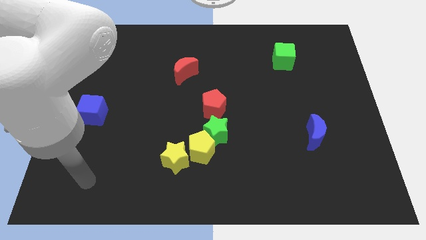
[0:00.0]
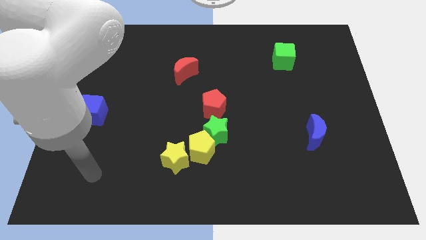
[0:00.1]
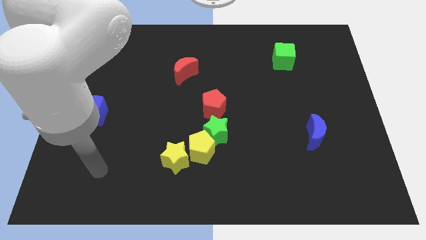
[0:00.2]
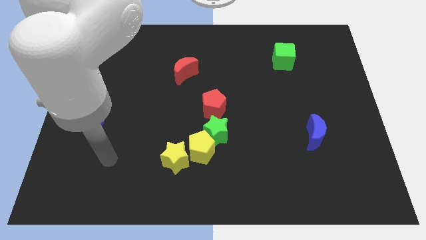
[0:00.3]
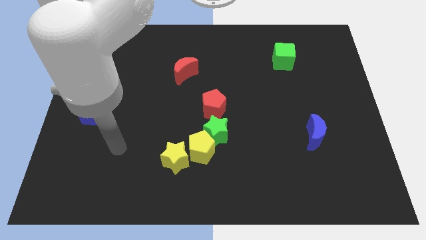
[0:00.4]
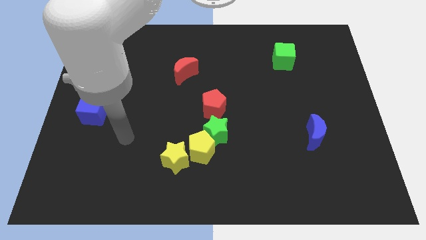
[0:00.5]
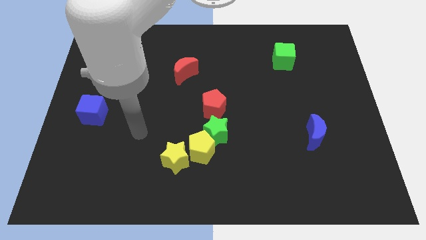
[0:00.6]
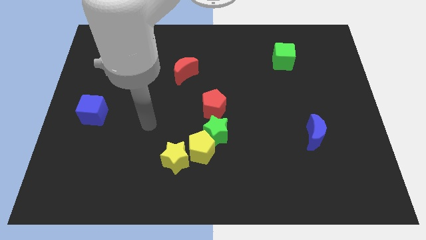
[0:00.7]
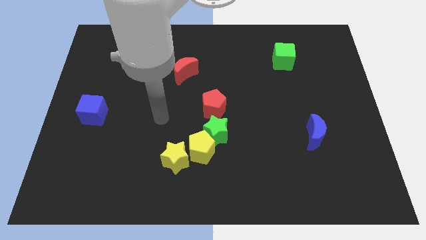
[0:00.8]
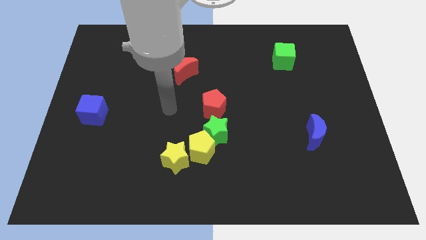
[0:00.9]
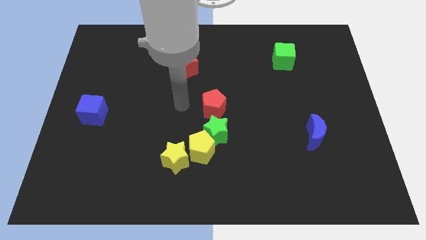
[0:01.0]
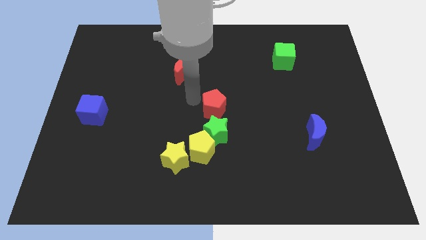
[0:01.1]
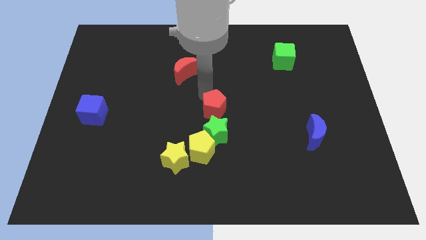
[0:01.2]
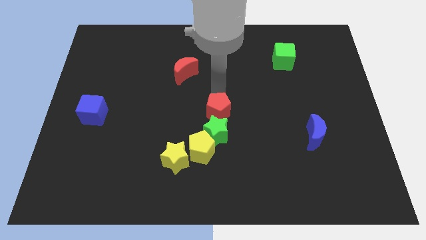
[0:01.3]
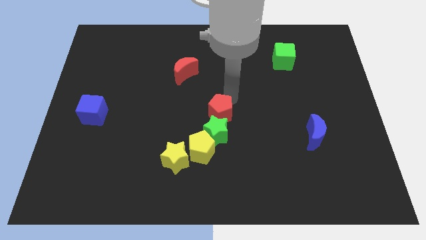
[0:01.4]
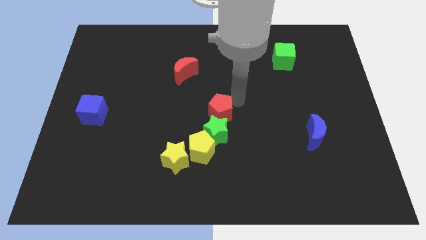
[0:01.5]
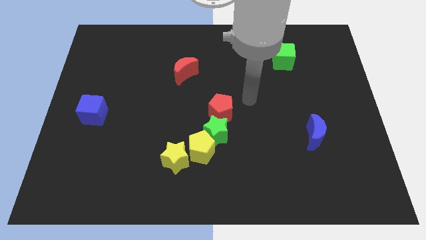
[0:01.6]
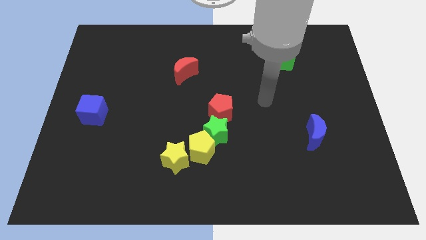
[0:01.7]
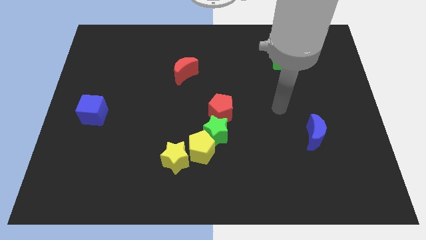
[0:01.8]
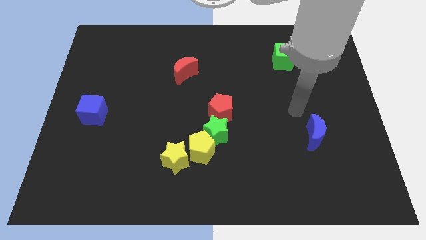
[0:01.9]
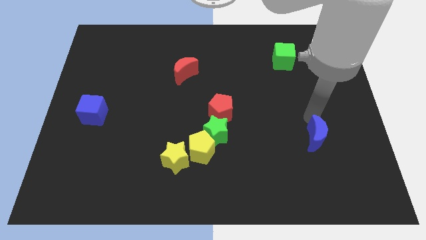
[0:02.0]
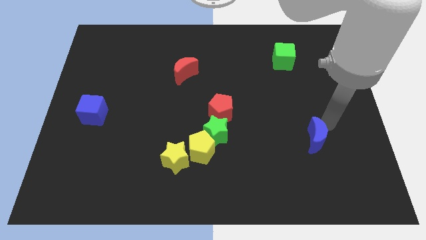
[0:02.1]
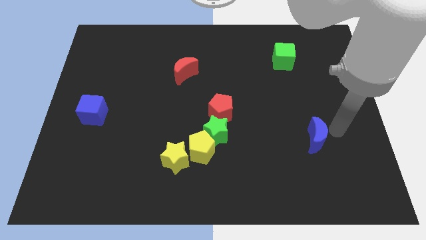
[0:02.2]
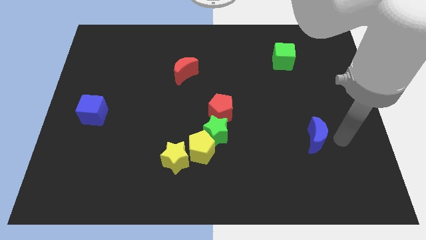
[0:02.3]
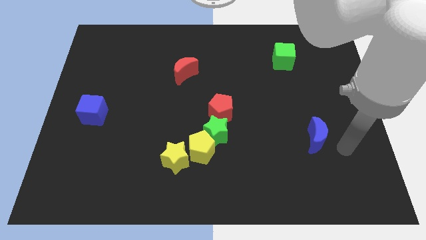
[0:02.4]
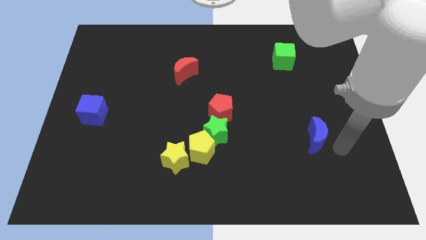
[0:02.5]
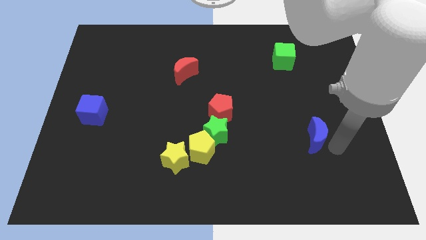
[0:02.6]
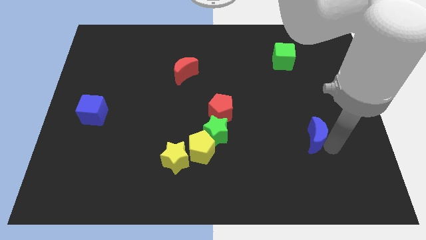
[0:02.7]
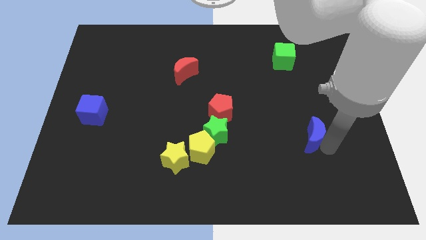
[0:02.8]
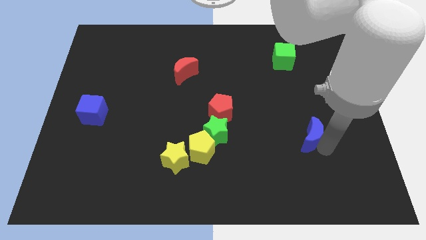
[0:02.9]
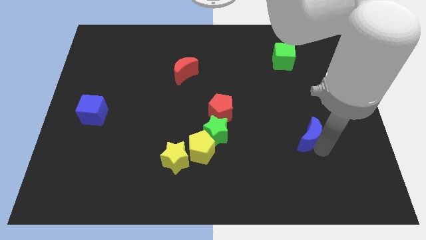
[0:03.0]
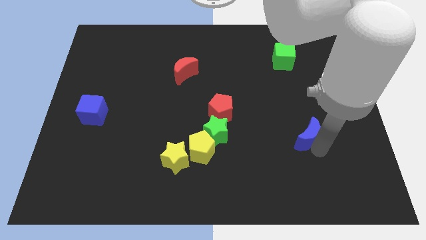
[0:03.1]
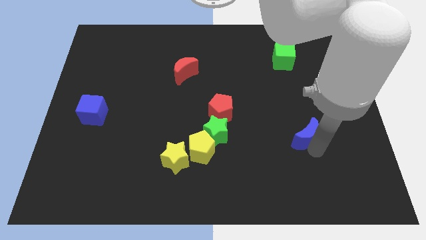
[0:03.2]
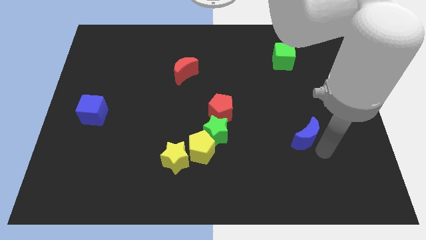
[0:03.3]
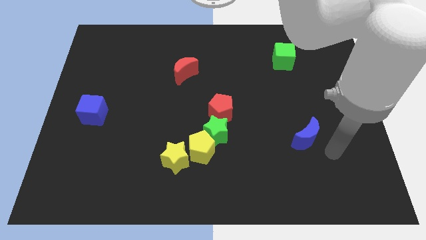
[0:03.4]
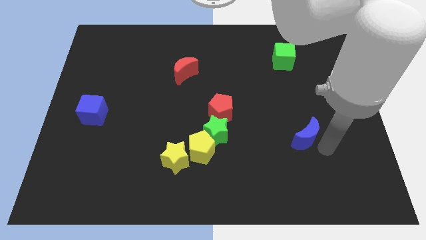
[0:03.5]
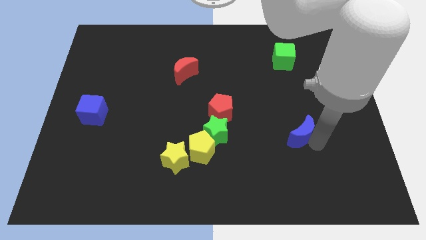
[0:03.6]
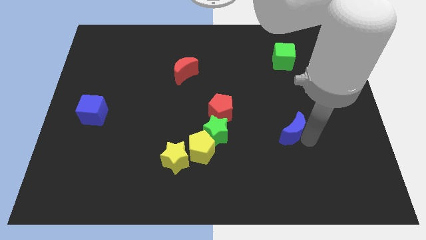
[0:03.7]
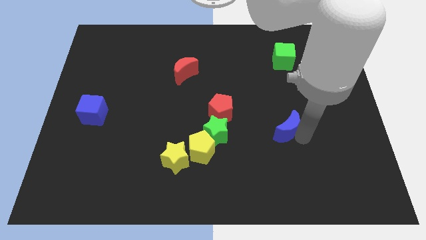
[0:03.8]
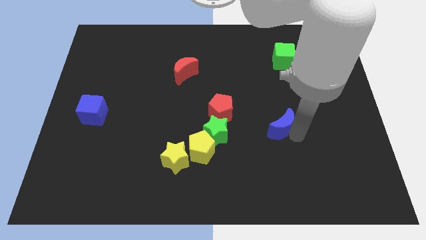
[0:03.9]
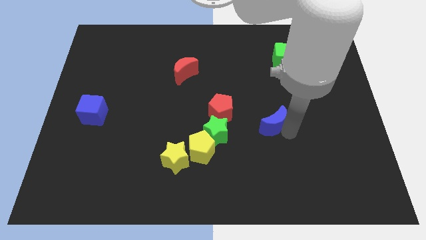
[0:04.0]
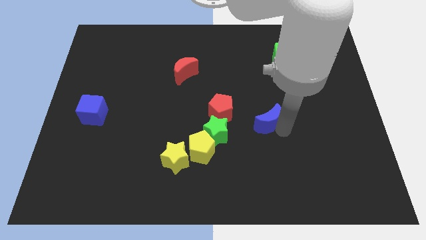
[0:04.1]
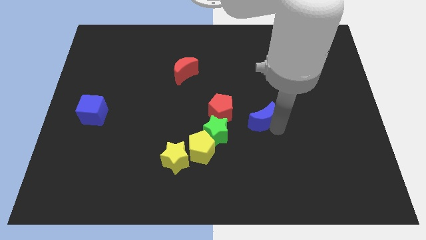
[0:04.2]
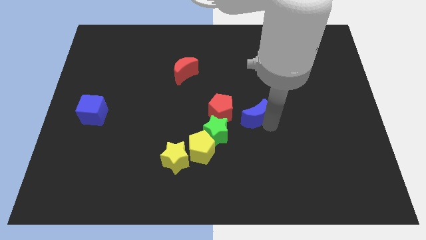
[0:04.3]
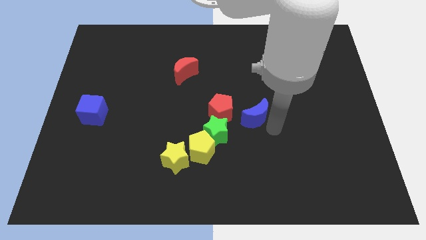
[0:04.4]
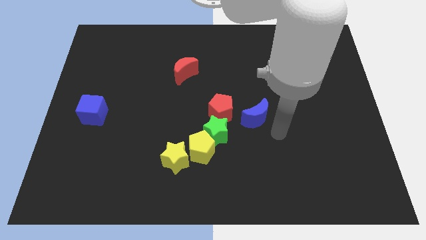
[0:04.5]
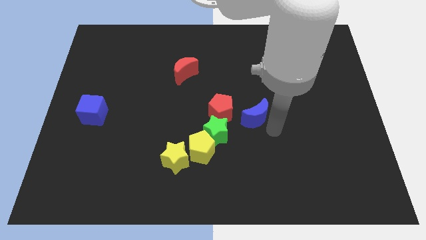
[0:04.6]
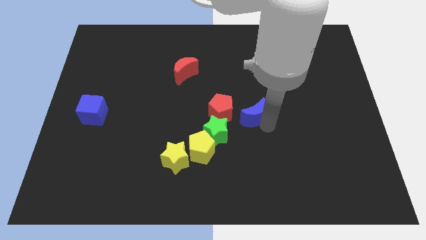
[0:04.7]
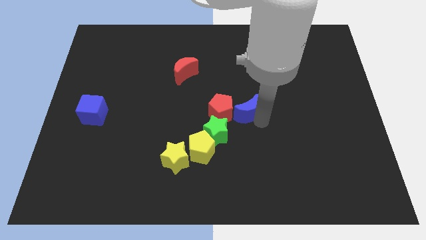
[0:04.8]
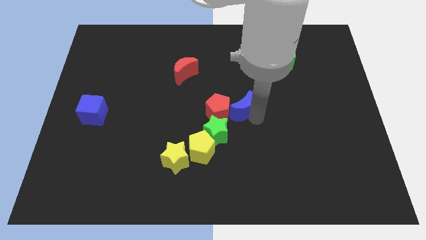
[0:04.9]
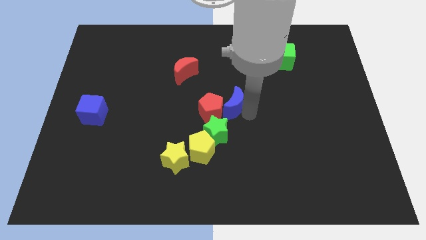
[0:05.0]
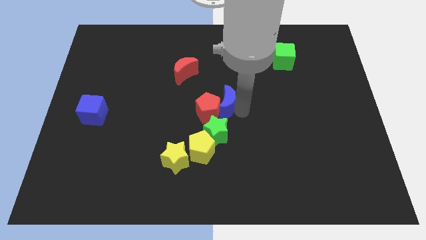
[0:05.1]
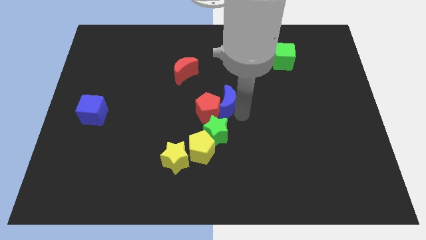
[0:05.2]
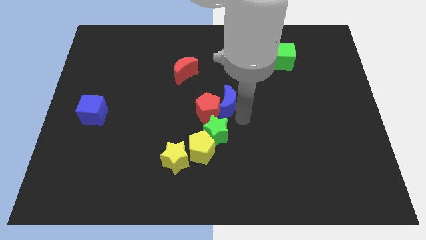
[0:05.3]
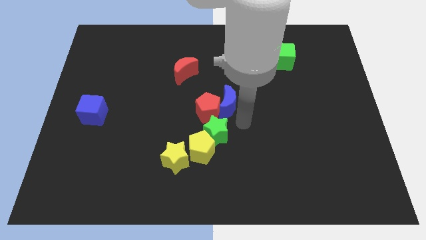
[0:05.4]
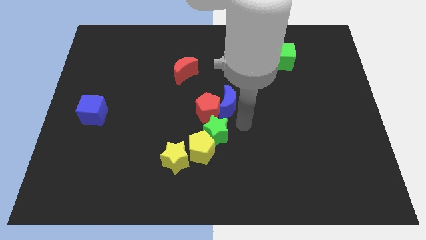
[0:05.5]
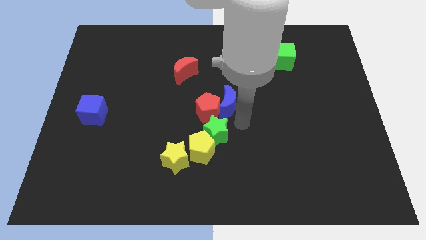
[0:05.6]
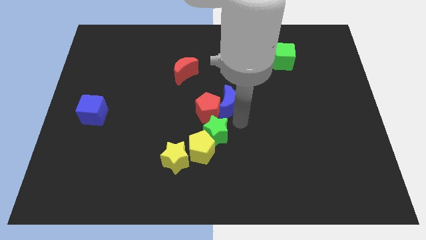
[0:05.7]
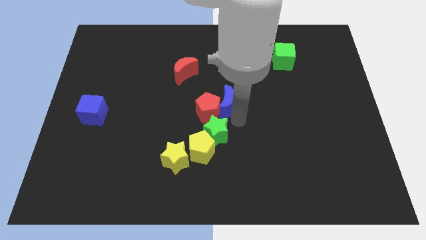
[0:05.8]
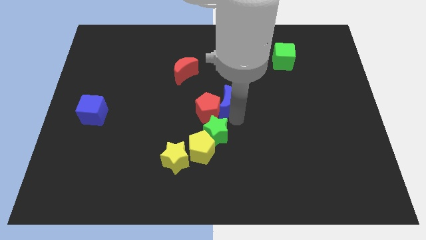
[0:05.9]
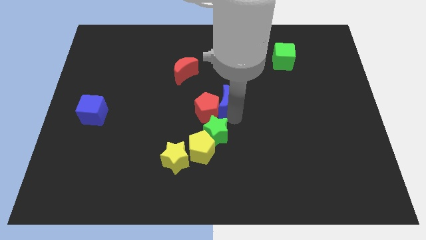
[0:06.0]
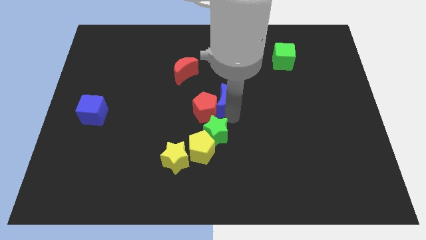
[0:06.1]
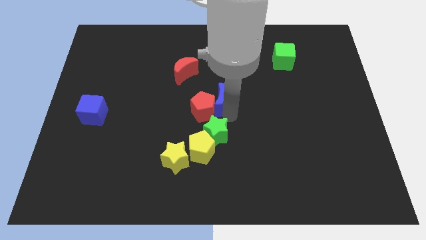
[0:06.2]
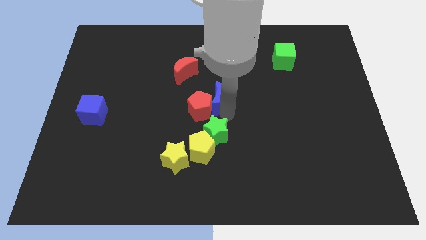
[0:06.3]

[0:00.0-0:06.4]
put the blue moon diagonally down and to the right of the red moon

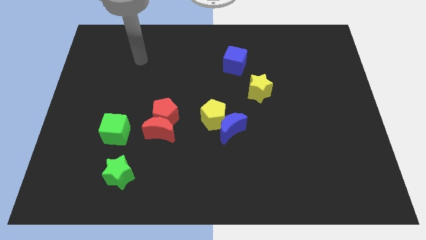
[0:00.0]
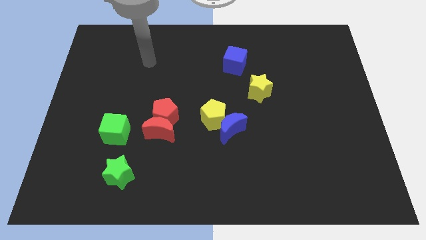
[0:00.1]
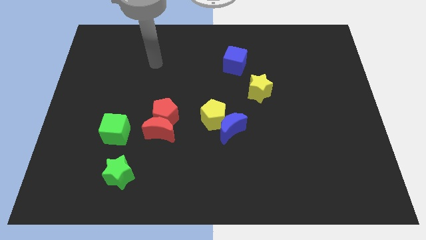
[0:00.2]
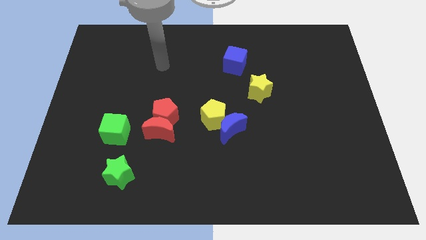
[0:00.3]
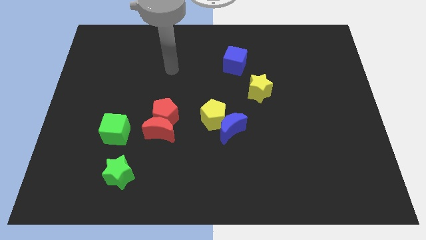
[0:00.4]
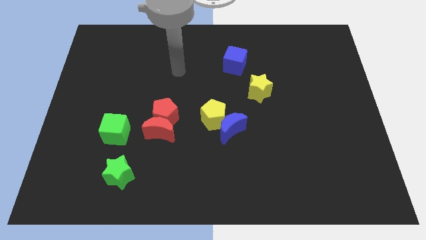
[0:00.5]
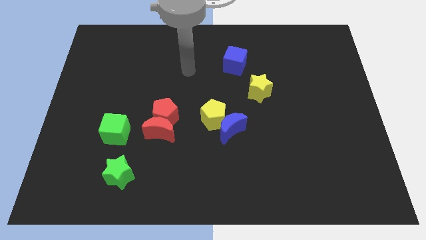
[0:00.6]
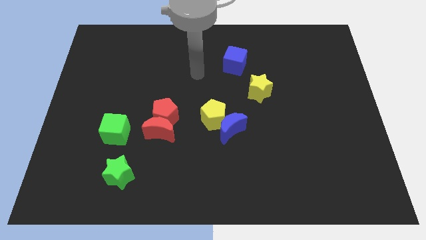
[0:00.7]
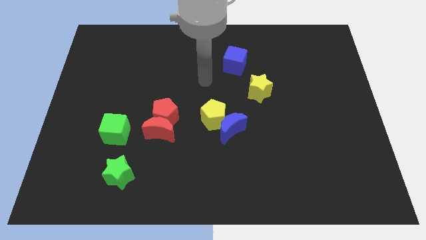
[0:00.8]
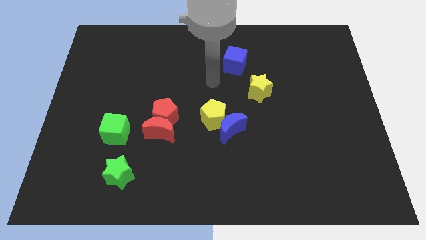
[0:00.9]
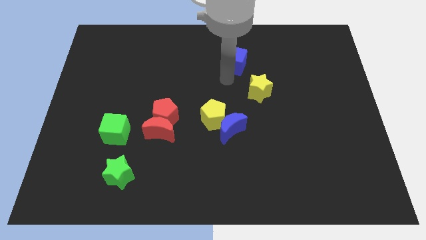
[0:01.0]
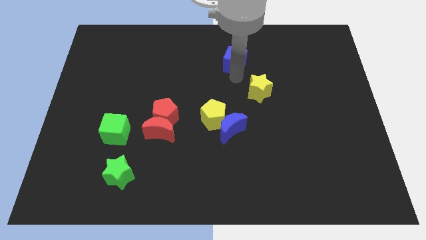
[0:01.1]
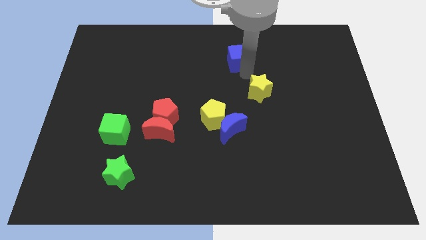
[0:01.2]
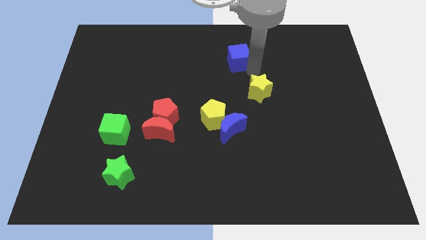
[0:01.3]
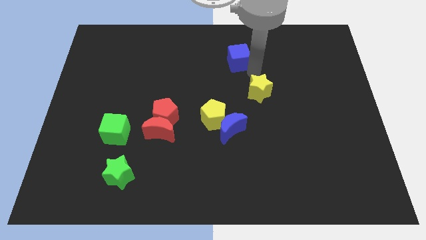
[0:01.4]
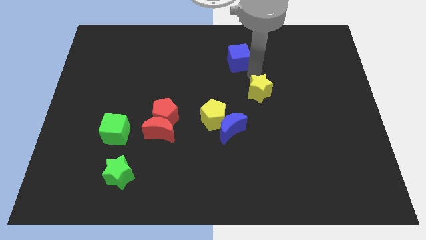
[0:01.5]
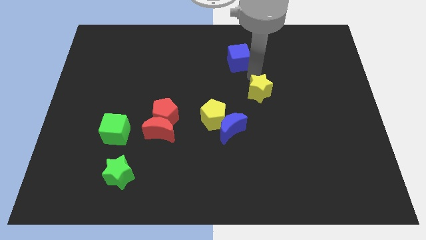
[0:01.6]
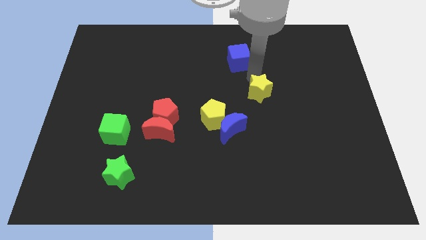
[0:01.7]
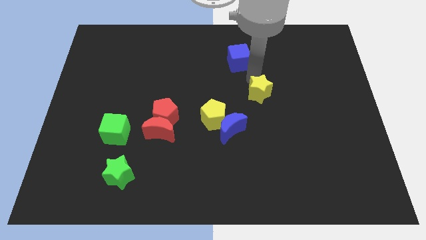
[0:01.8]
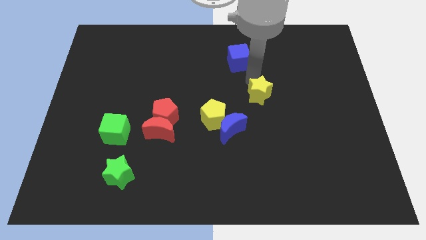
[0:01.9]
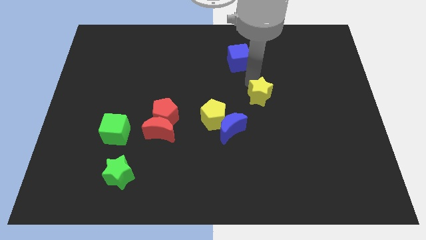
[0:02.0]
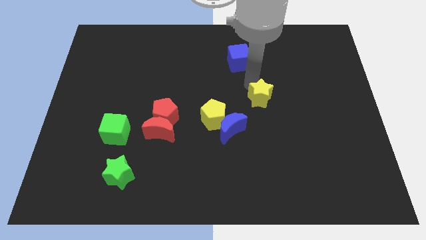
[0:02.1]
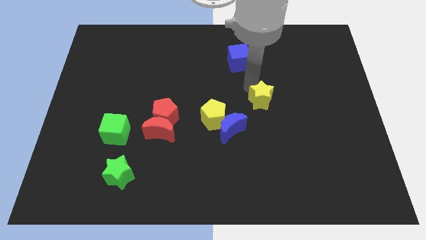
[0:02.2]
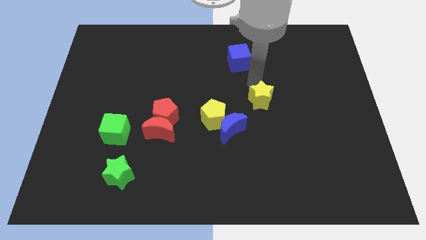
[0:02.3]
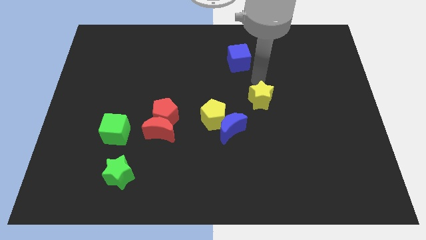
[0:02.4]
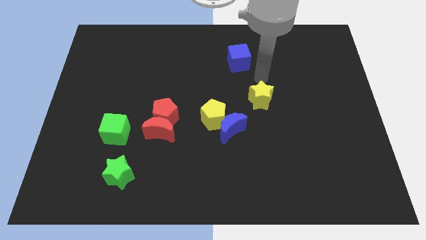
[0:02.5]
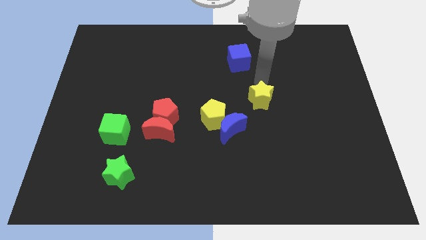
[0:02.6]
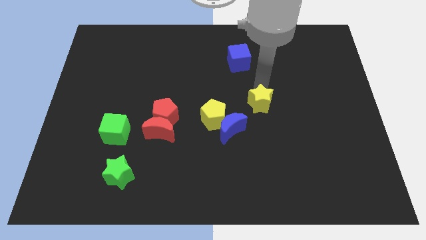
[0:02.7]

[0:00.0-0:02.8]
move the yellow star to the right side of the yellow pentagon
